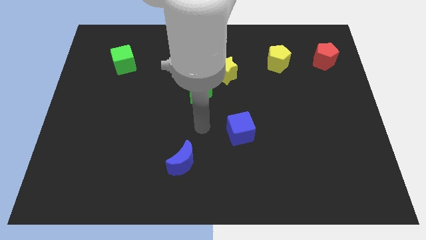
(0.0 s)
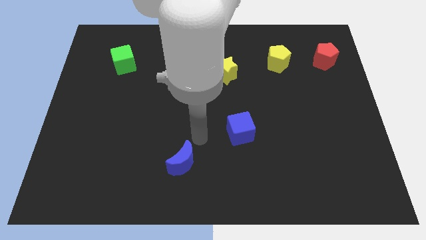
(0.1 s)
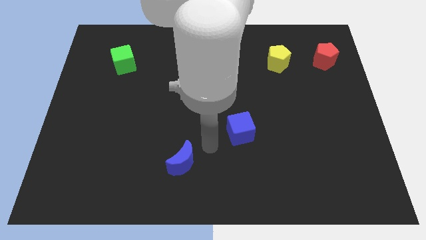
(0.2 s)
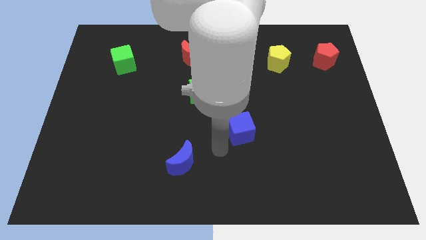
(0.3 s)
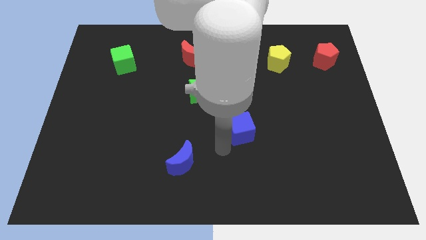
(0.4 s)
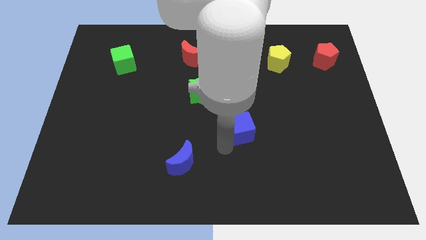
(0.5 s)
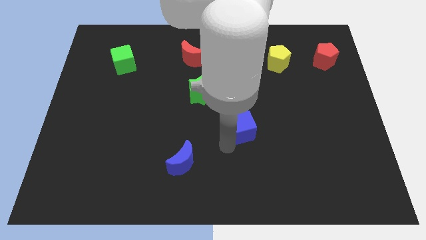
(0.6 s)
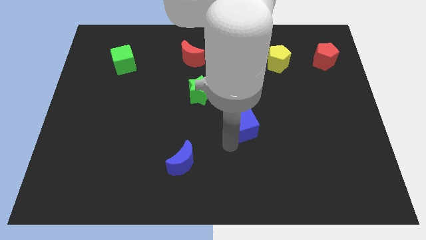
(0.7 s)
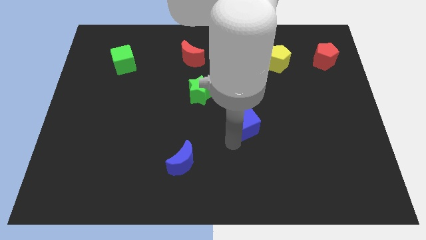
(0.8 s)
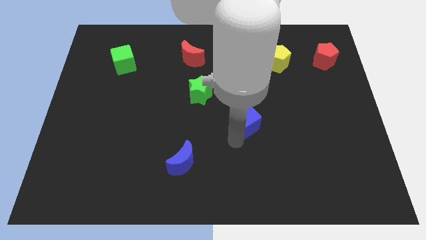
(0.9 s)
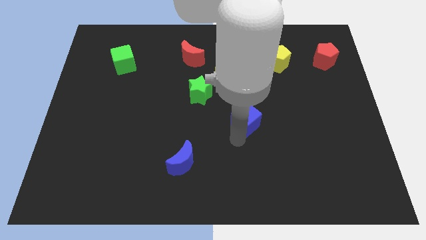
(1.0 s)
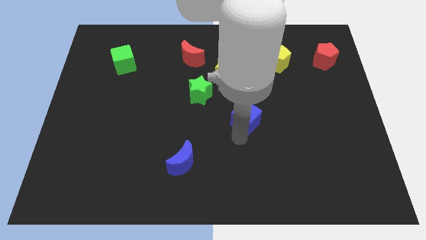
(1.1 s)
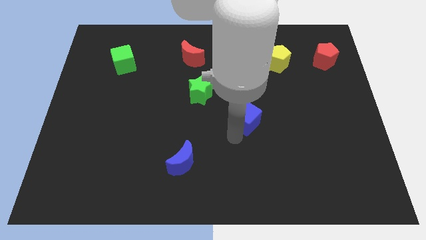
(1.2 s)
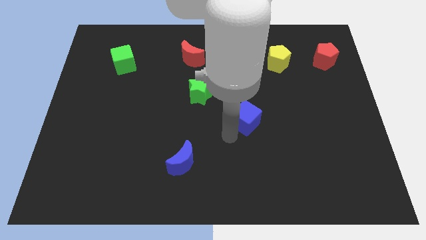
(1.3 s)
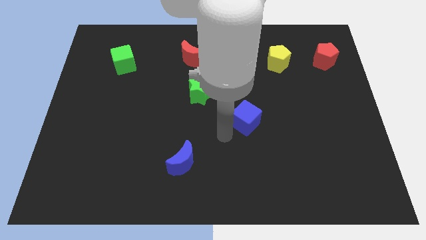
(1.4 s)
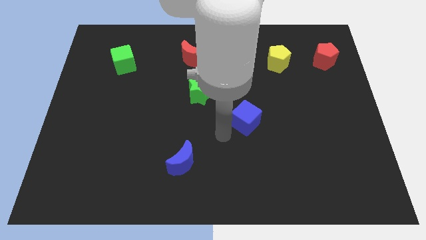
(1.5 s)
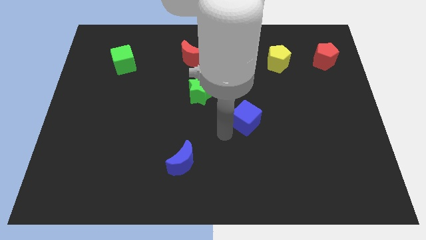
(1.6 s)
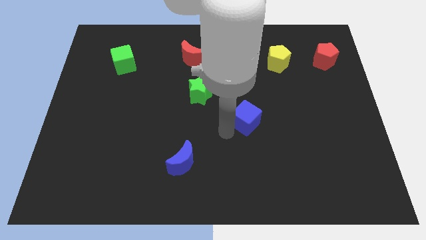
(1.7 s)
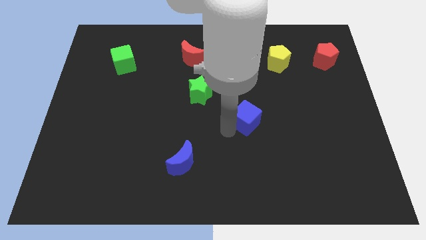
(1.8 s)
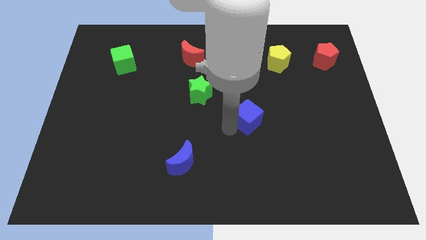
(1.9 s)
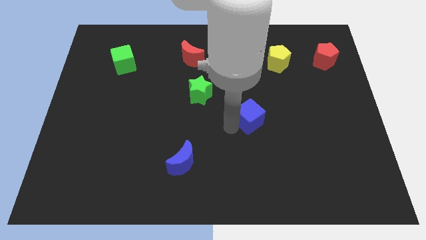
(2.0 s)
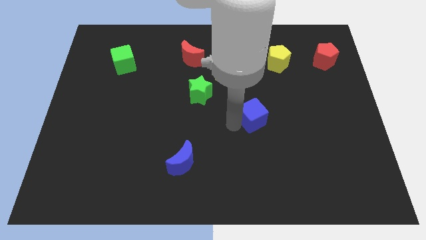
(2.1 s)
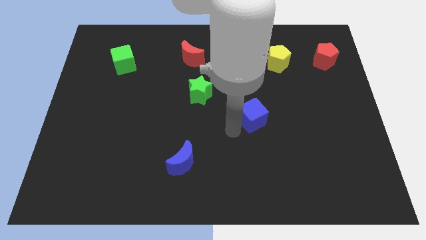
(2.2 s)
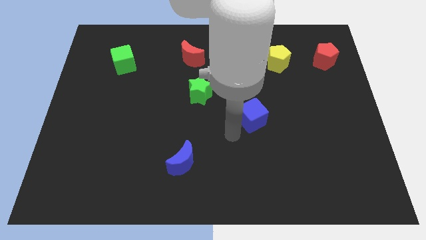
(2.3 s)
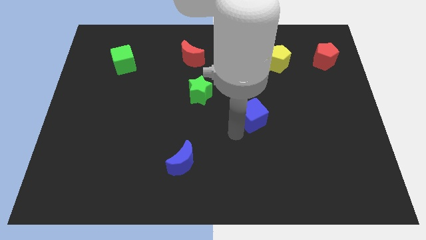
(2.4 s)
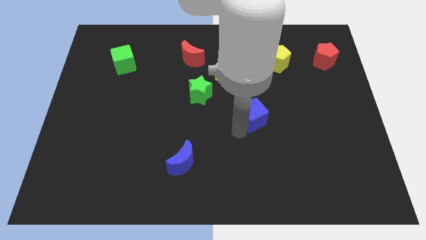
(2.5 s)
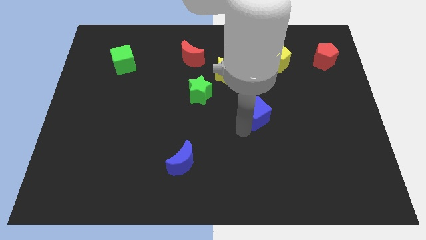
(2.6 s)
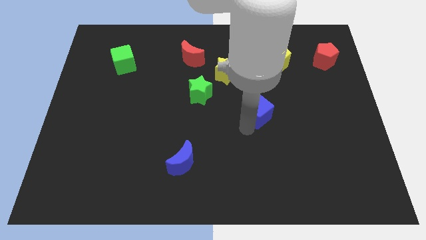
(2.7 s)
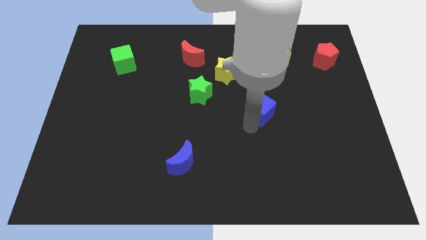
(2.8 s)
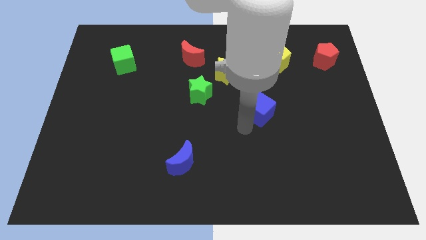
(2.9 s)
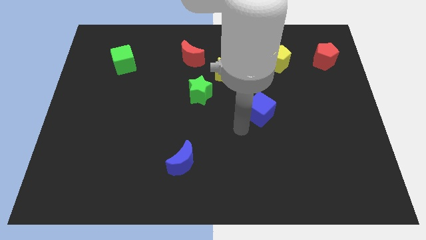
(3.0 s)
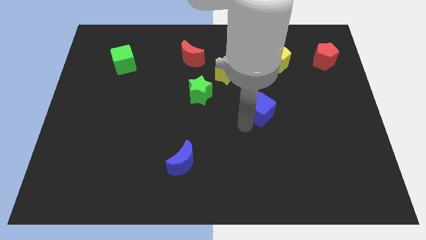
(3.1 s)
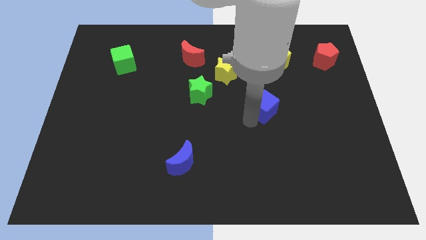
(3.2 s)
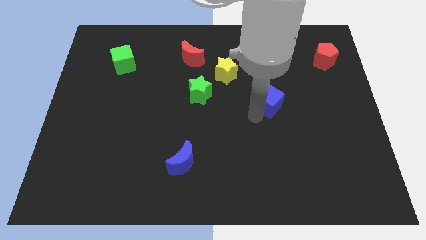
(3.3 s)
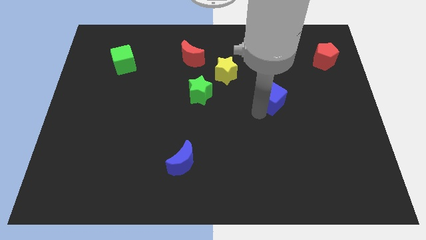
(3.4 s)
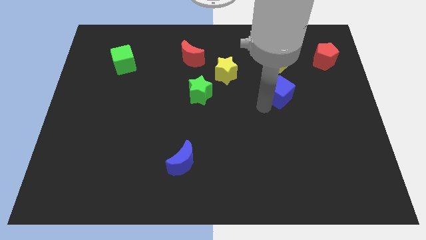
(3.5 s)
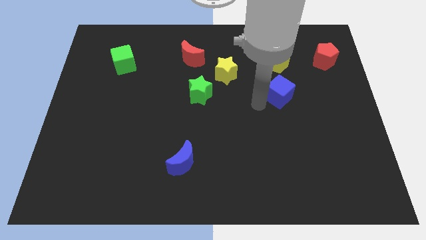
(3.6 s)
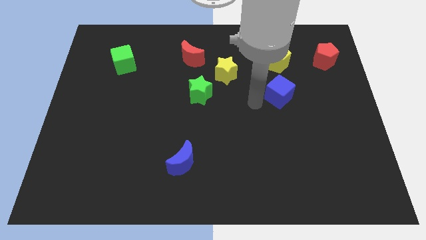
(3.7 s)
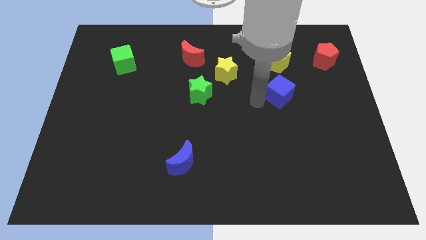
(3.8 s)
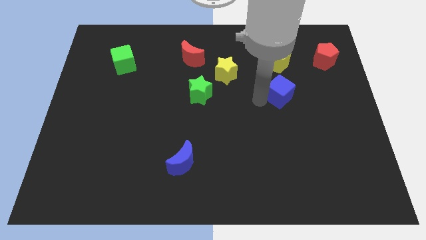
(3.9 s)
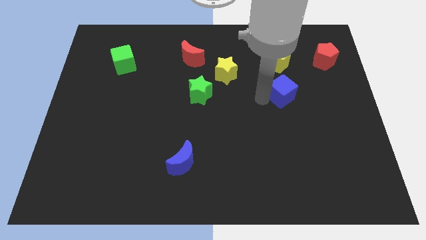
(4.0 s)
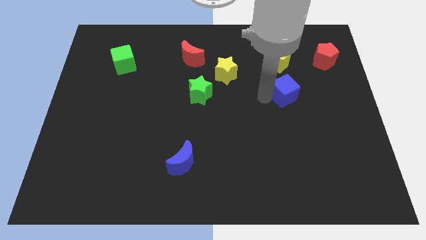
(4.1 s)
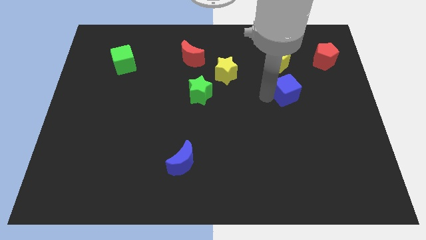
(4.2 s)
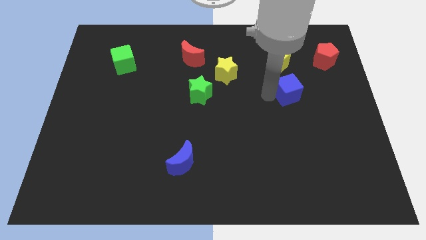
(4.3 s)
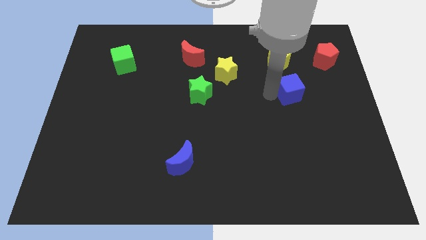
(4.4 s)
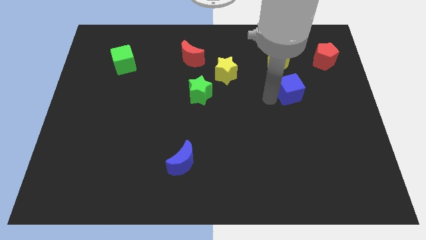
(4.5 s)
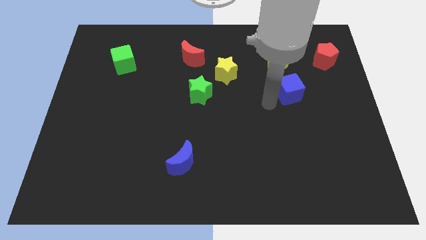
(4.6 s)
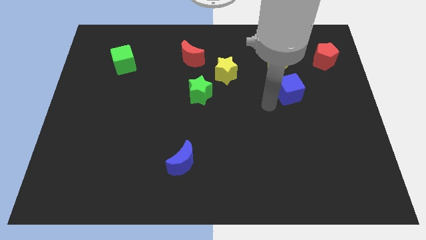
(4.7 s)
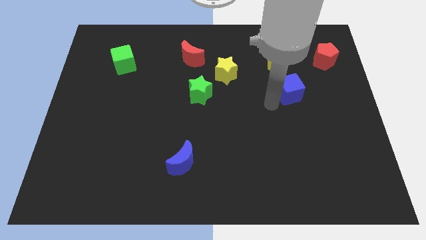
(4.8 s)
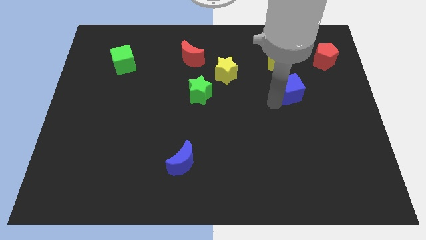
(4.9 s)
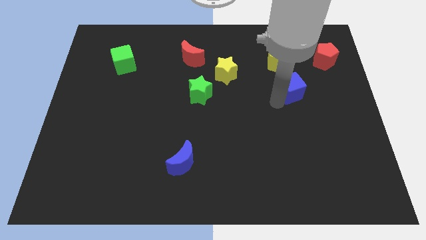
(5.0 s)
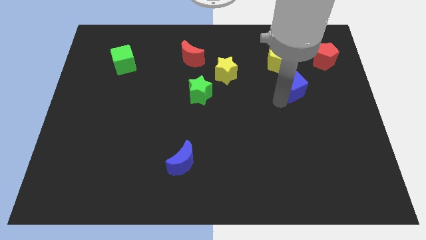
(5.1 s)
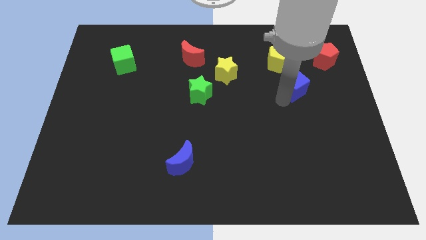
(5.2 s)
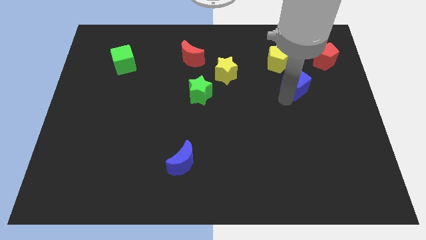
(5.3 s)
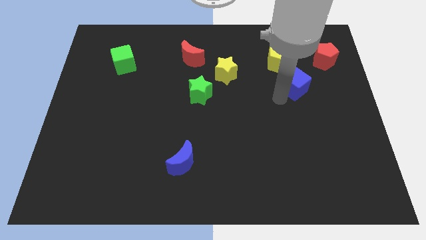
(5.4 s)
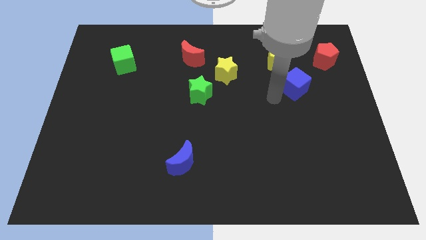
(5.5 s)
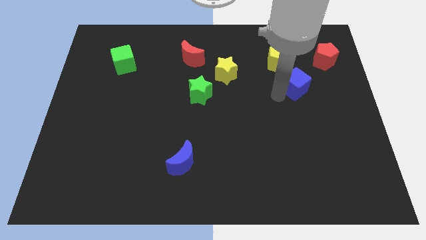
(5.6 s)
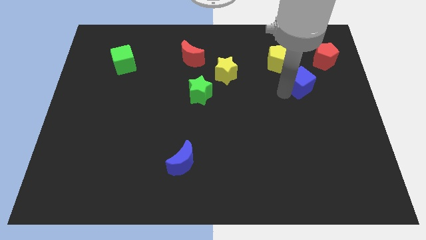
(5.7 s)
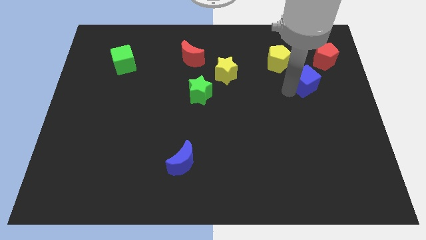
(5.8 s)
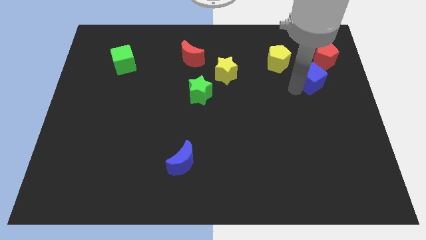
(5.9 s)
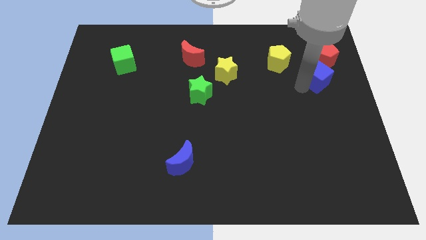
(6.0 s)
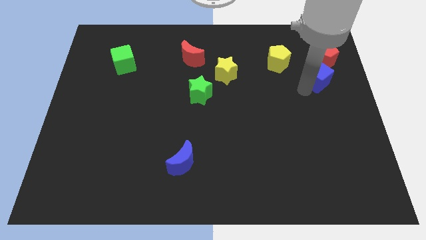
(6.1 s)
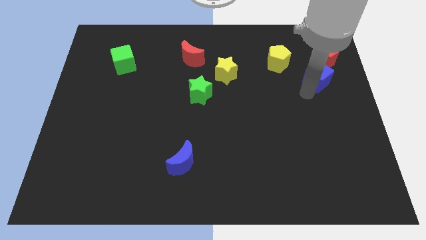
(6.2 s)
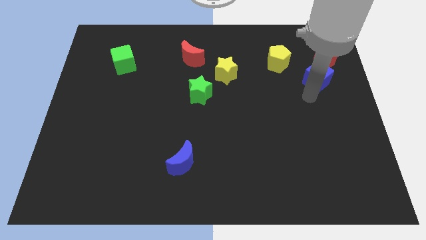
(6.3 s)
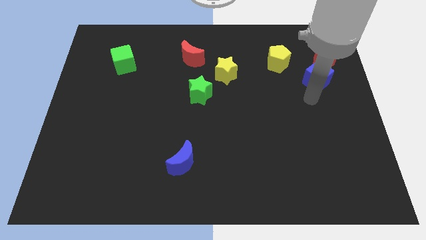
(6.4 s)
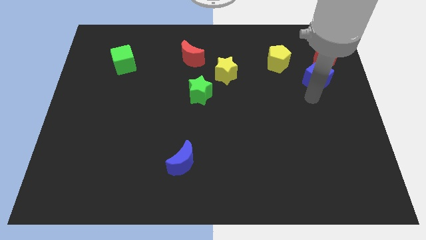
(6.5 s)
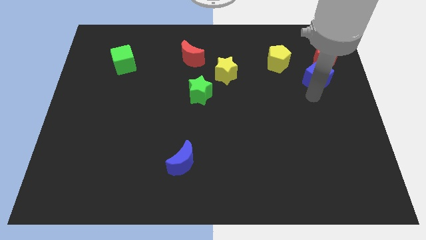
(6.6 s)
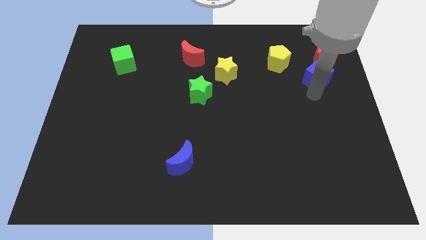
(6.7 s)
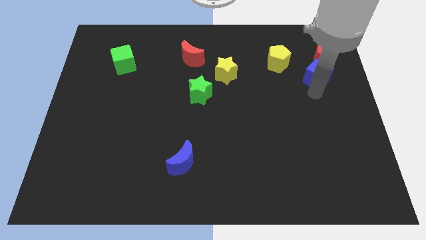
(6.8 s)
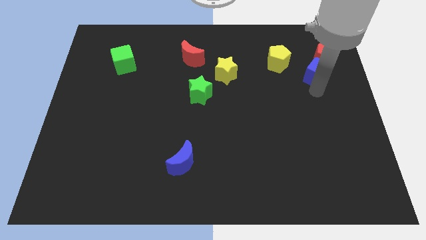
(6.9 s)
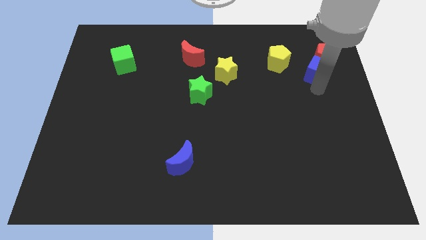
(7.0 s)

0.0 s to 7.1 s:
slide the blue cube towards the red pentagon
